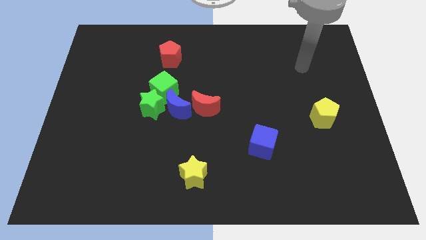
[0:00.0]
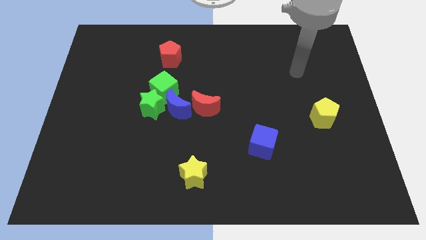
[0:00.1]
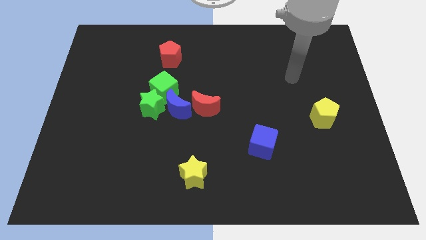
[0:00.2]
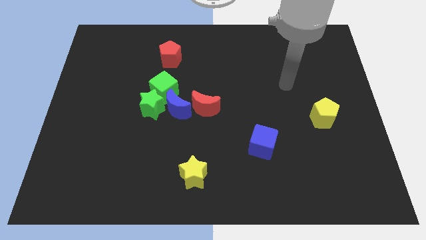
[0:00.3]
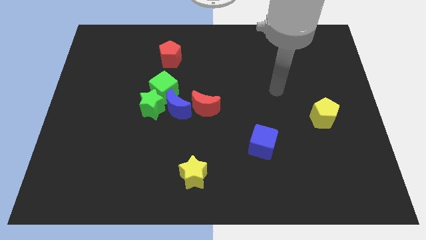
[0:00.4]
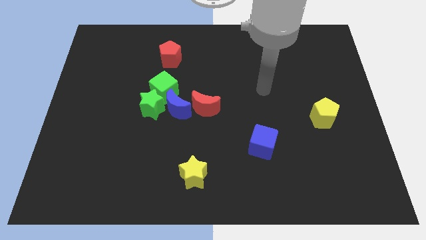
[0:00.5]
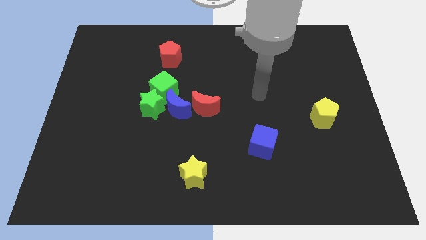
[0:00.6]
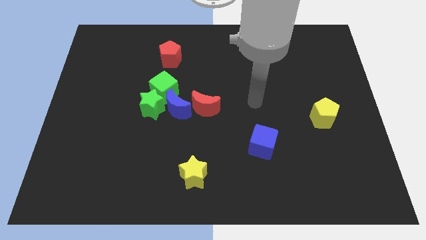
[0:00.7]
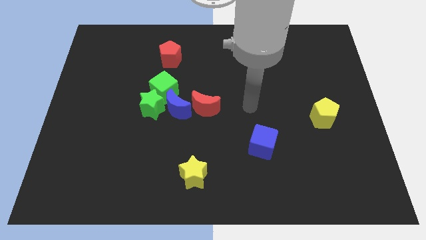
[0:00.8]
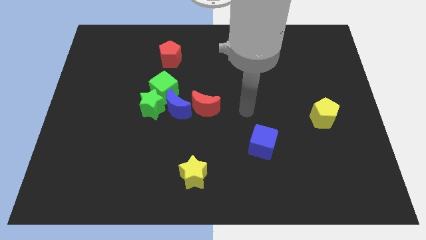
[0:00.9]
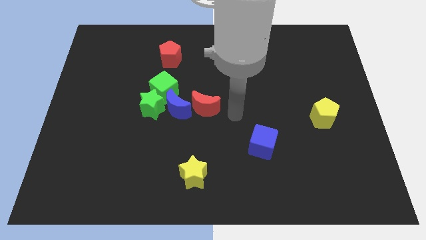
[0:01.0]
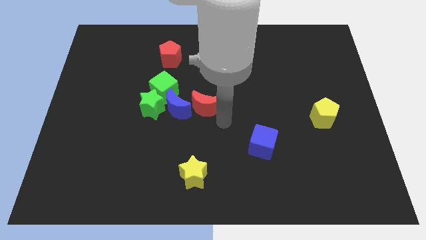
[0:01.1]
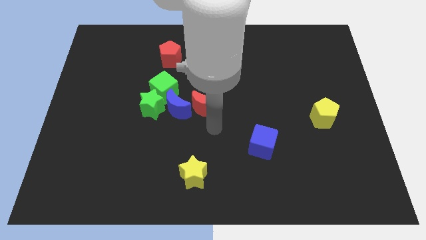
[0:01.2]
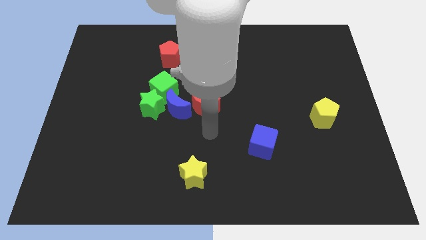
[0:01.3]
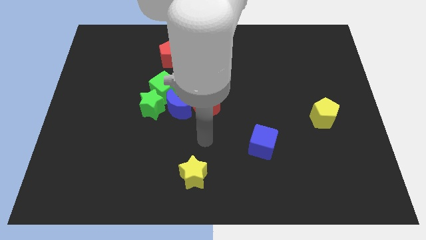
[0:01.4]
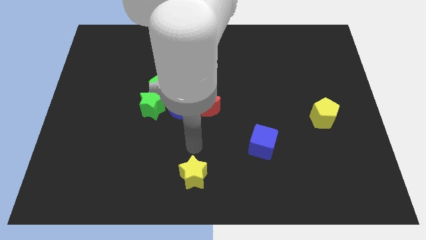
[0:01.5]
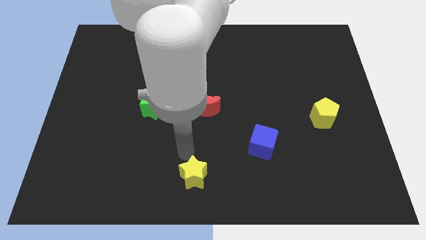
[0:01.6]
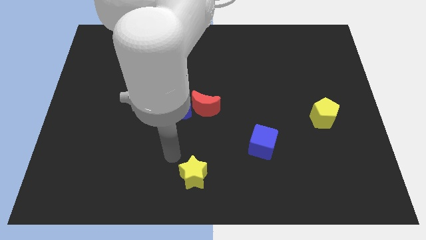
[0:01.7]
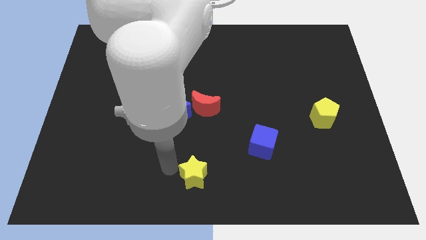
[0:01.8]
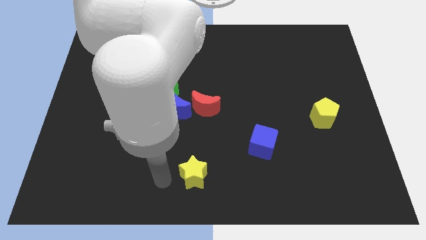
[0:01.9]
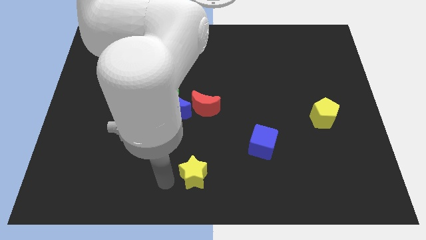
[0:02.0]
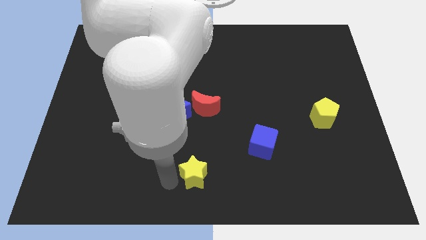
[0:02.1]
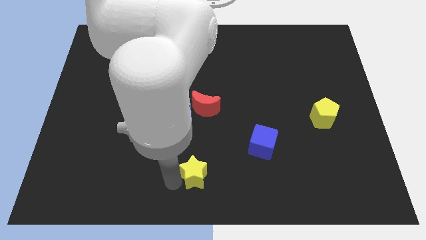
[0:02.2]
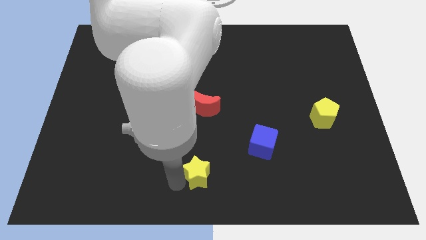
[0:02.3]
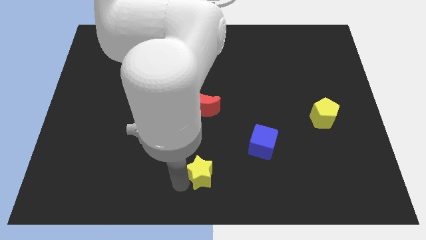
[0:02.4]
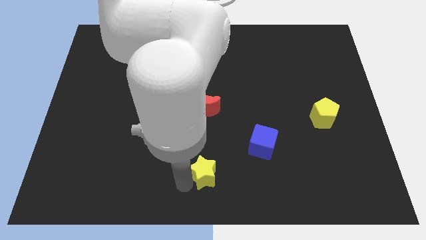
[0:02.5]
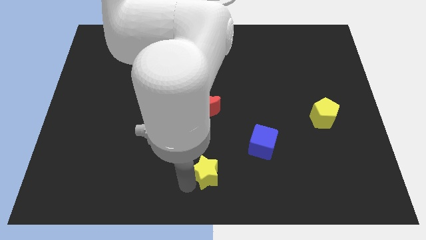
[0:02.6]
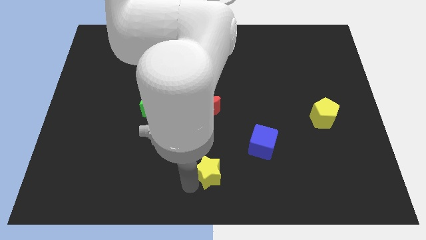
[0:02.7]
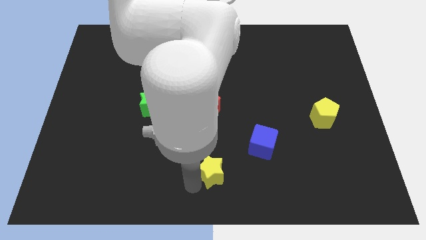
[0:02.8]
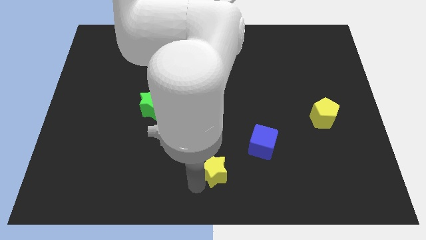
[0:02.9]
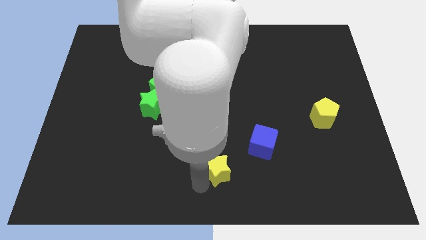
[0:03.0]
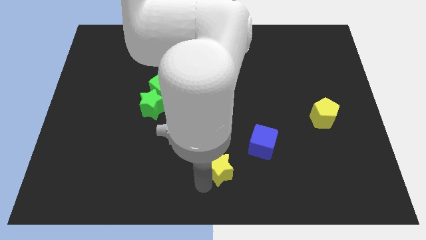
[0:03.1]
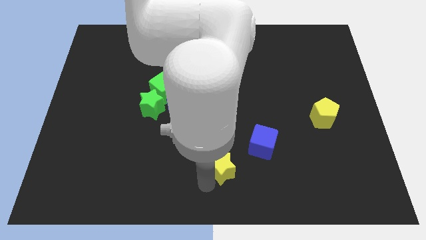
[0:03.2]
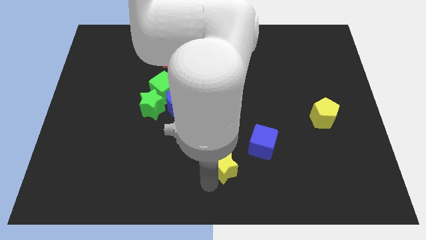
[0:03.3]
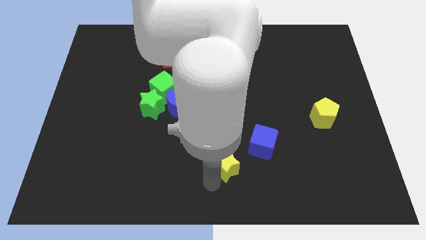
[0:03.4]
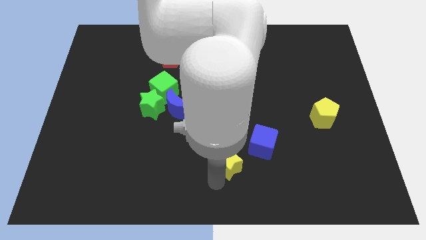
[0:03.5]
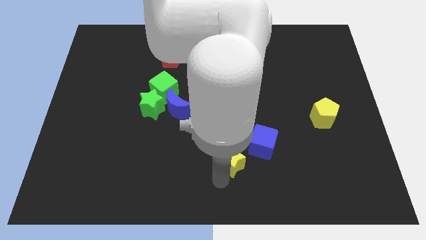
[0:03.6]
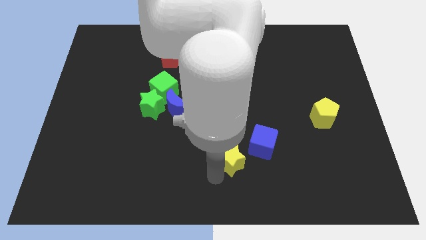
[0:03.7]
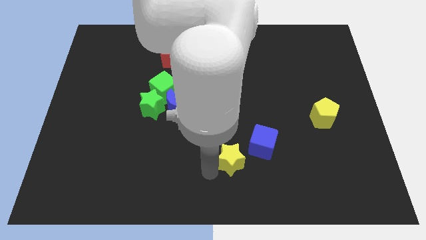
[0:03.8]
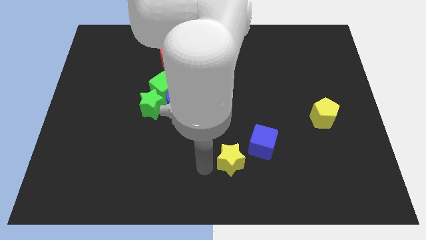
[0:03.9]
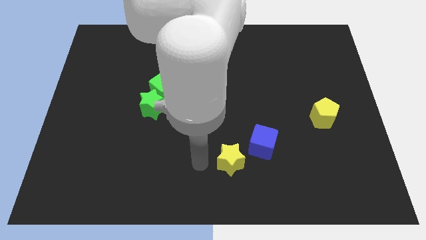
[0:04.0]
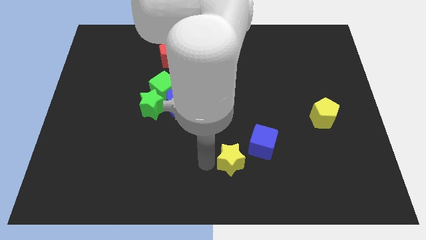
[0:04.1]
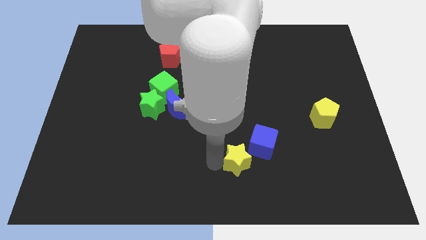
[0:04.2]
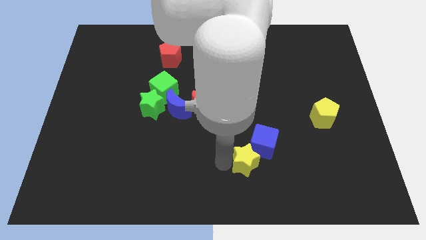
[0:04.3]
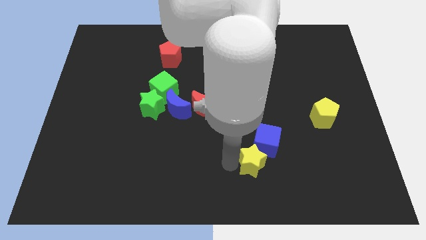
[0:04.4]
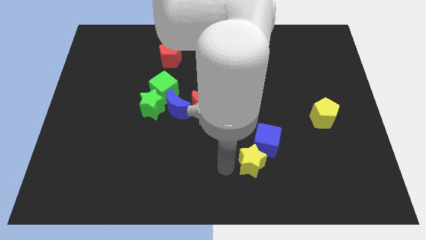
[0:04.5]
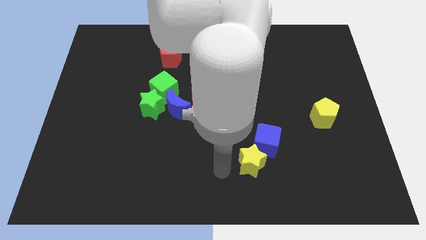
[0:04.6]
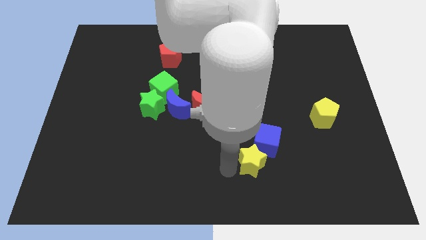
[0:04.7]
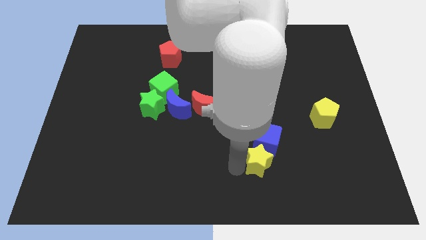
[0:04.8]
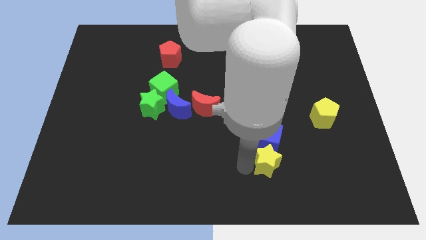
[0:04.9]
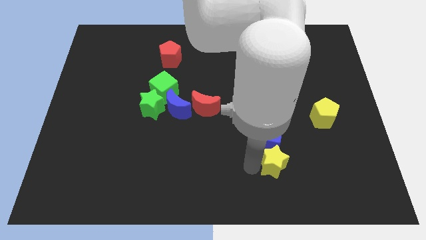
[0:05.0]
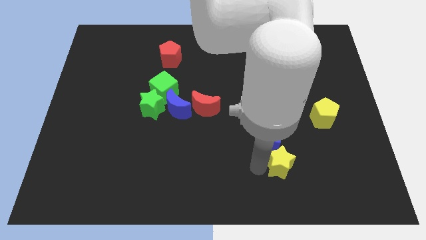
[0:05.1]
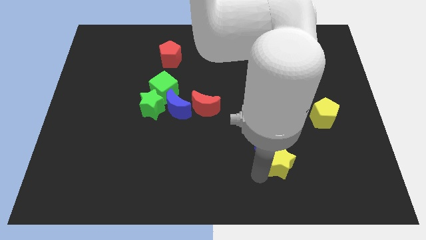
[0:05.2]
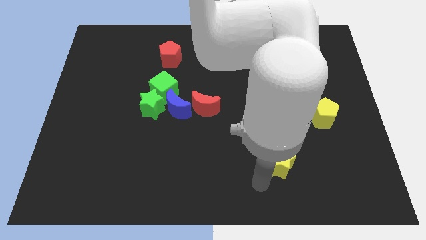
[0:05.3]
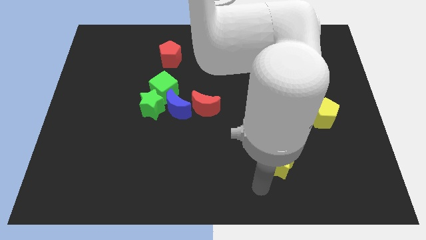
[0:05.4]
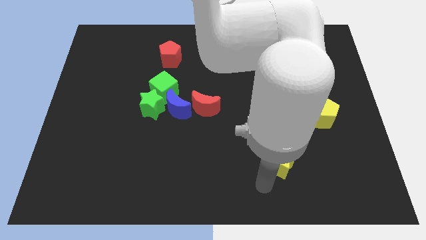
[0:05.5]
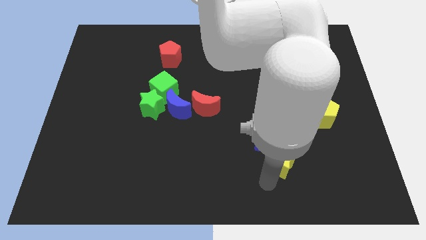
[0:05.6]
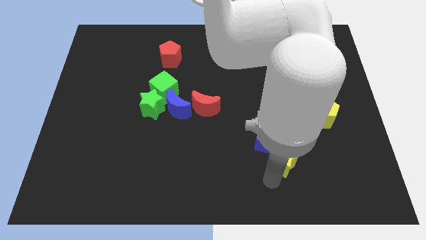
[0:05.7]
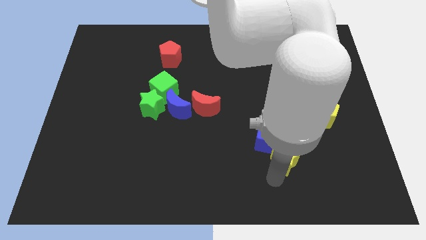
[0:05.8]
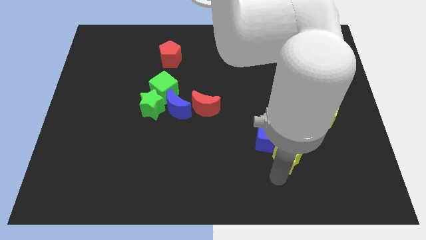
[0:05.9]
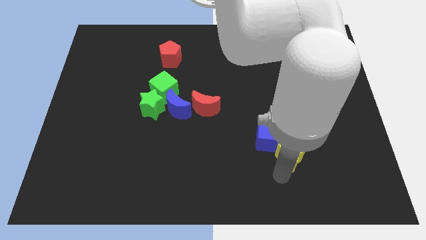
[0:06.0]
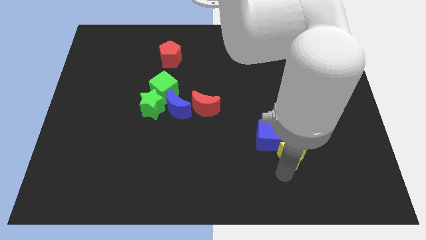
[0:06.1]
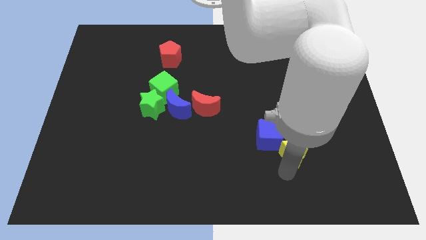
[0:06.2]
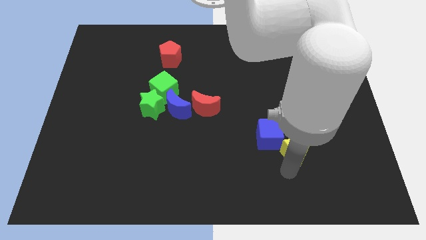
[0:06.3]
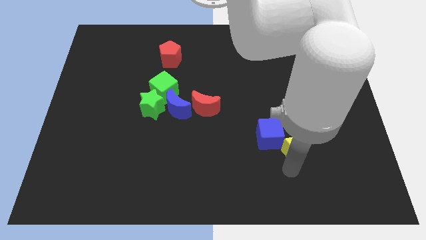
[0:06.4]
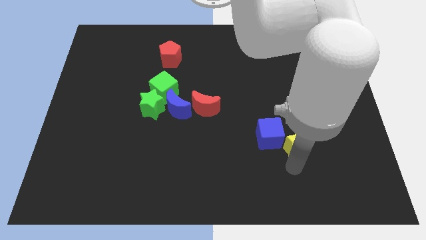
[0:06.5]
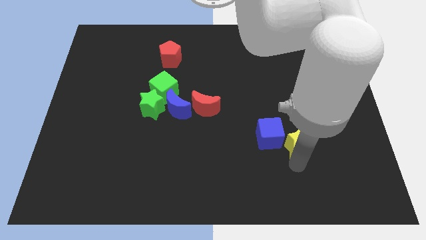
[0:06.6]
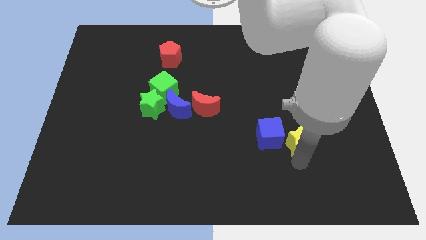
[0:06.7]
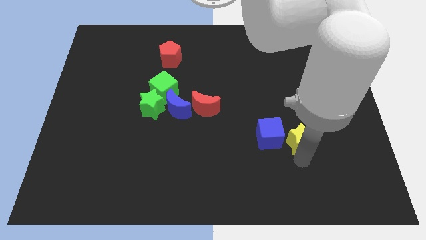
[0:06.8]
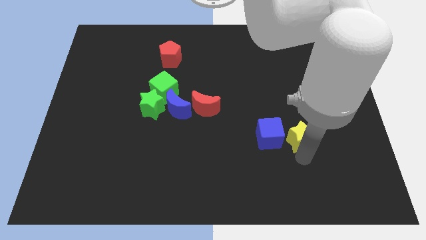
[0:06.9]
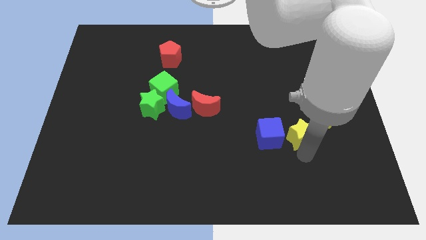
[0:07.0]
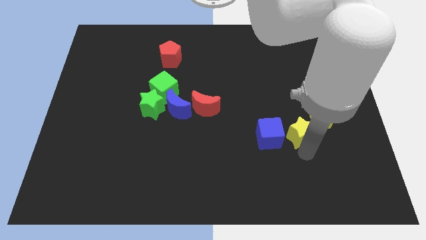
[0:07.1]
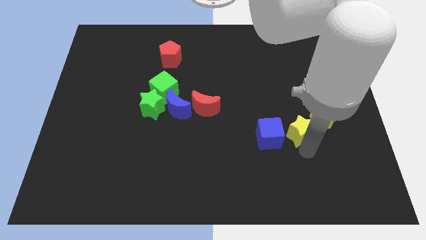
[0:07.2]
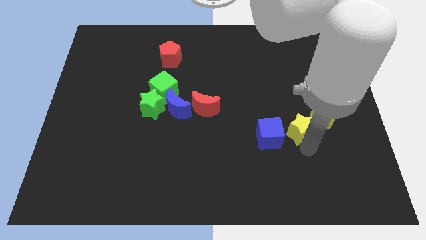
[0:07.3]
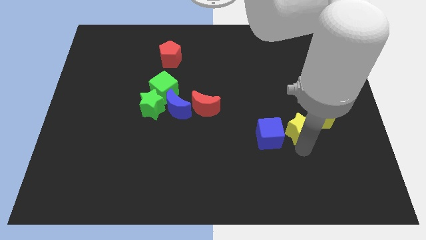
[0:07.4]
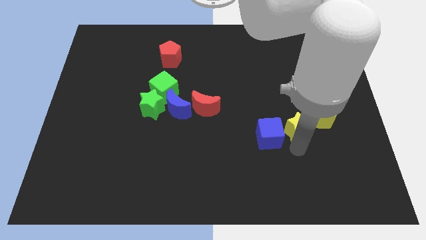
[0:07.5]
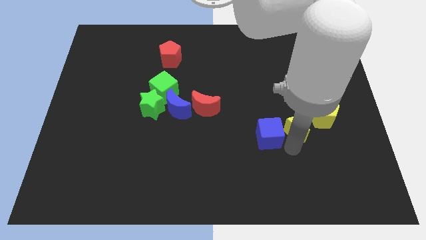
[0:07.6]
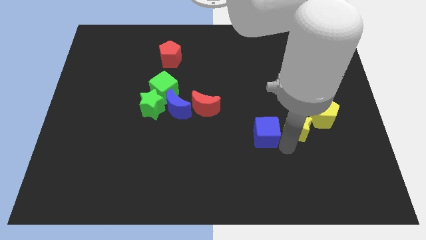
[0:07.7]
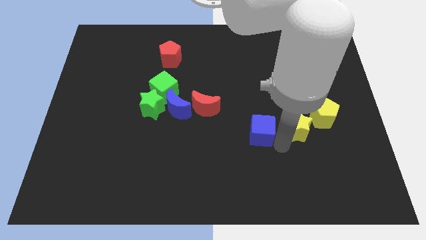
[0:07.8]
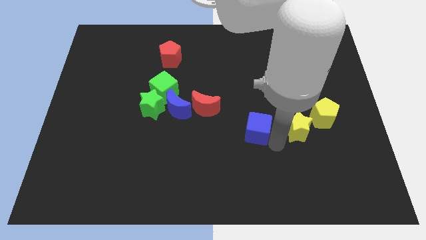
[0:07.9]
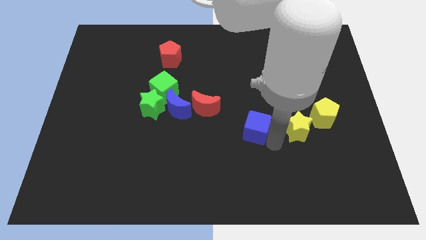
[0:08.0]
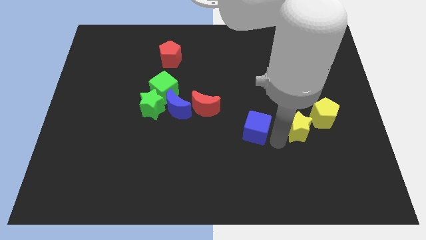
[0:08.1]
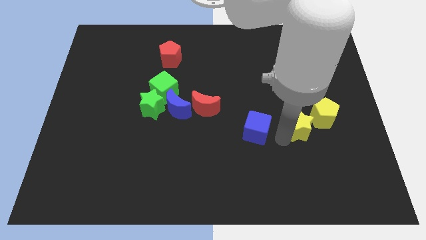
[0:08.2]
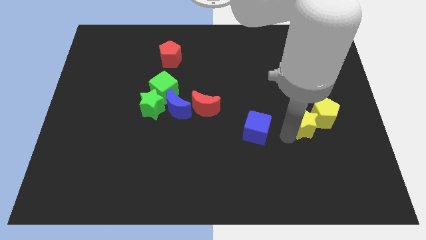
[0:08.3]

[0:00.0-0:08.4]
move the yellow star next to the yellow pentagon
